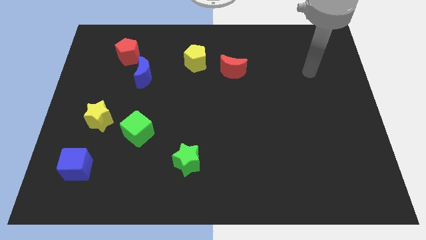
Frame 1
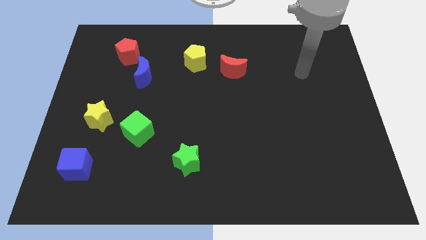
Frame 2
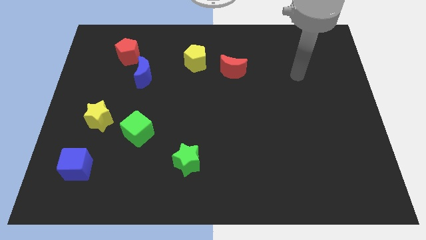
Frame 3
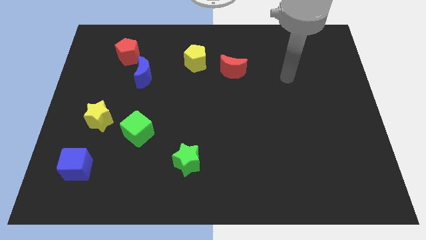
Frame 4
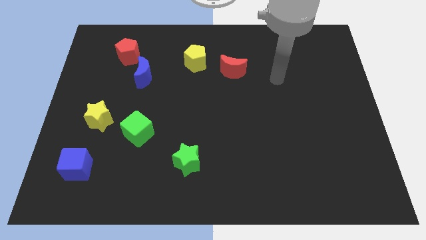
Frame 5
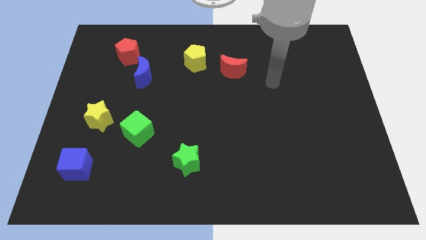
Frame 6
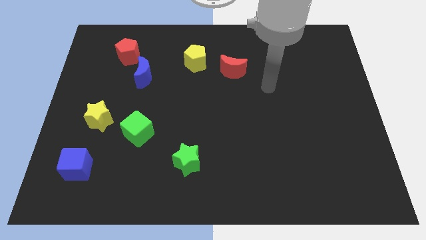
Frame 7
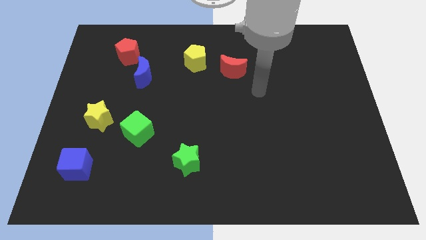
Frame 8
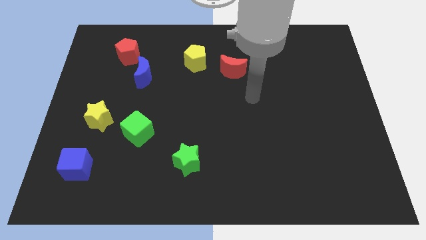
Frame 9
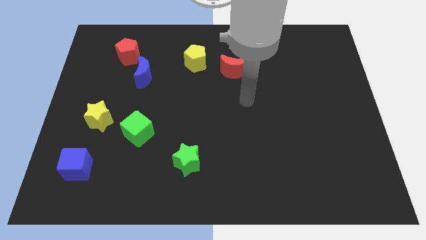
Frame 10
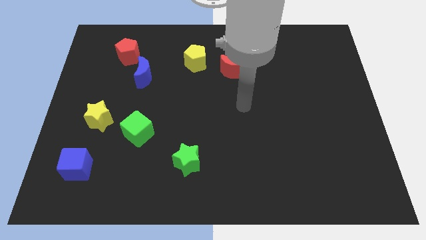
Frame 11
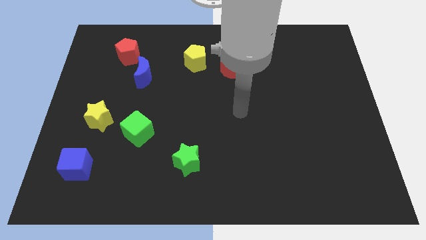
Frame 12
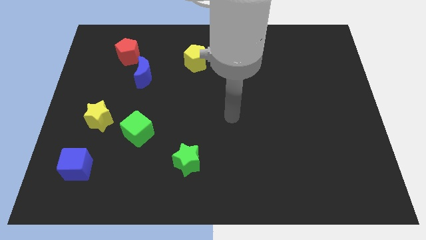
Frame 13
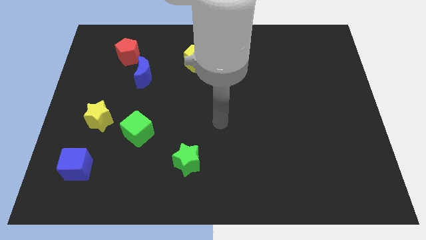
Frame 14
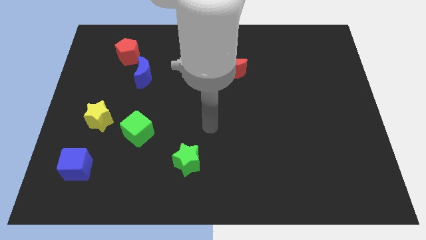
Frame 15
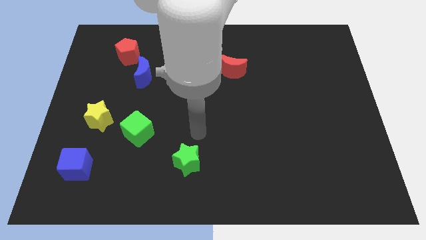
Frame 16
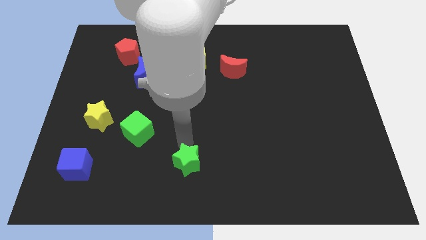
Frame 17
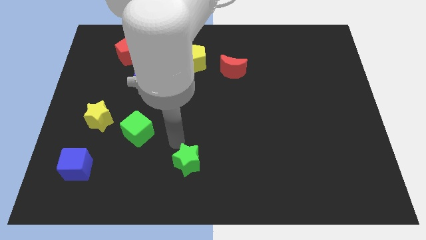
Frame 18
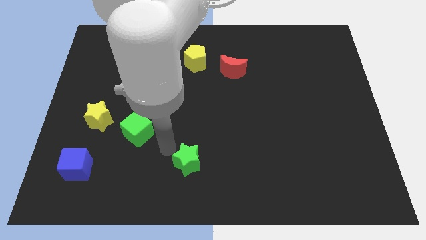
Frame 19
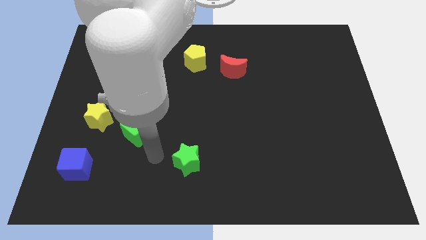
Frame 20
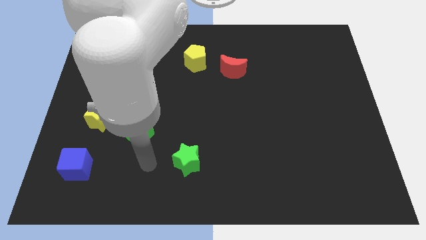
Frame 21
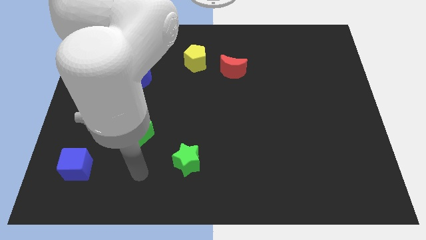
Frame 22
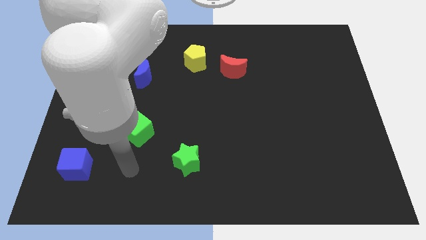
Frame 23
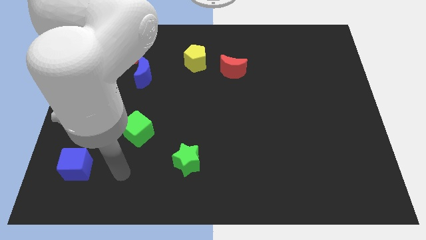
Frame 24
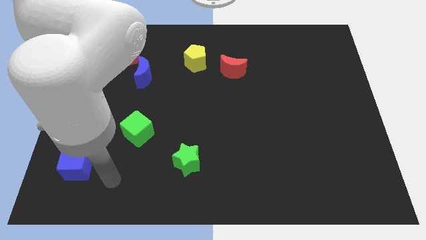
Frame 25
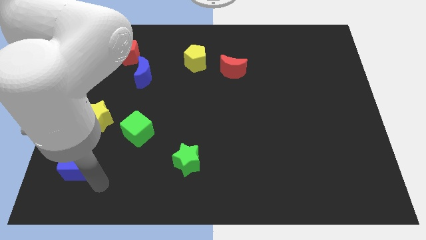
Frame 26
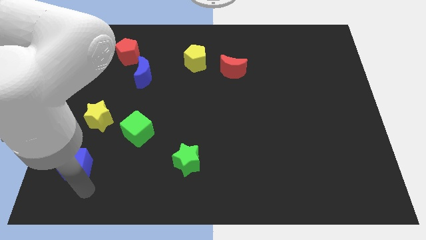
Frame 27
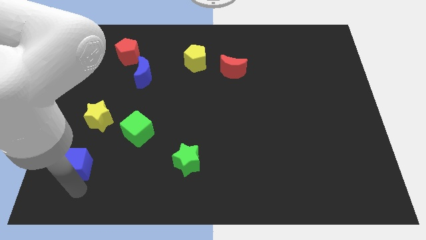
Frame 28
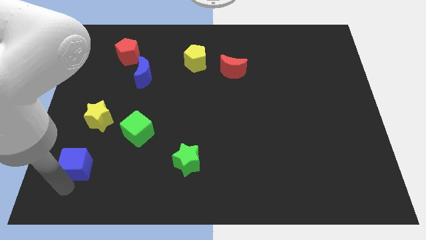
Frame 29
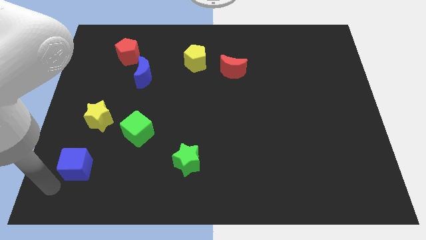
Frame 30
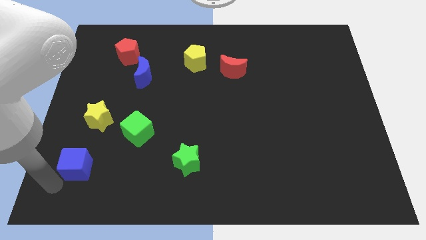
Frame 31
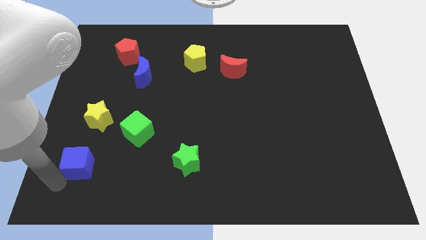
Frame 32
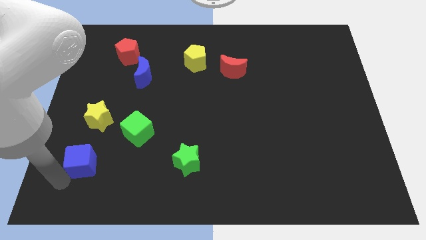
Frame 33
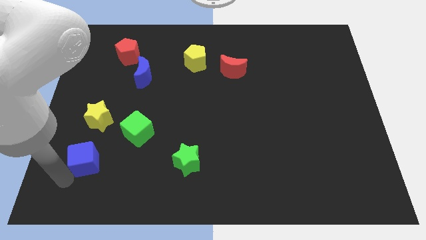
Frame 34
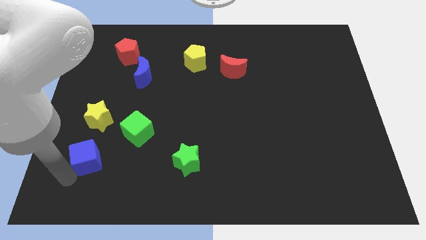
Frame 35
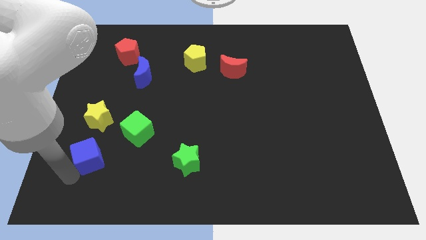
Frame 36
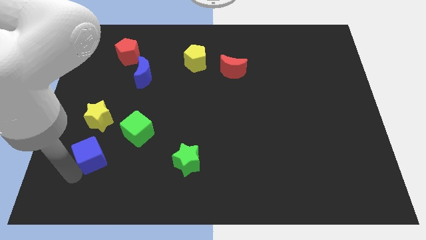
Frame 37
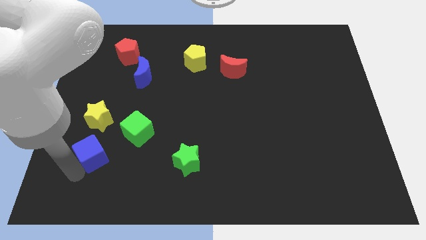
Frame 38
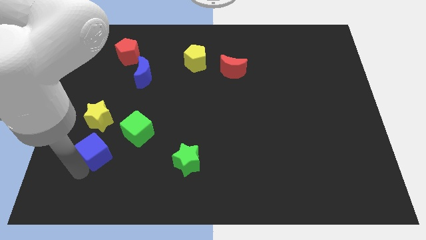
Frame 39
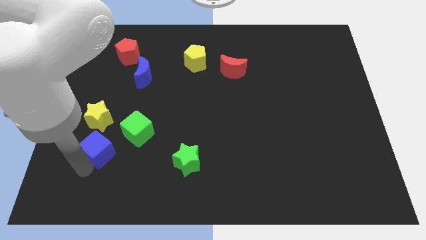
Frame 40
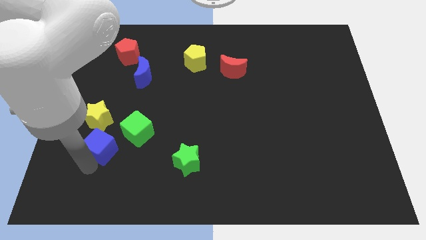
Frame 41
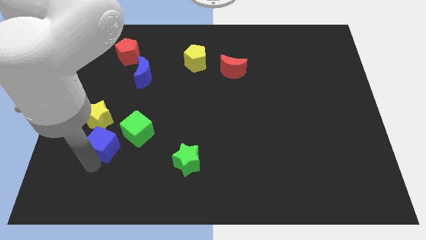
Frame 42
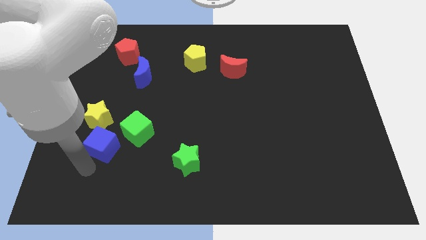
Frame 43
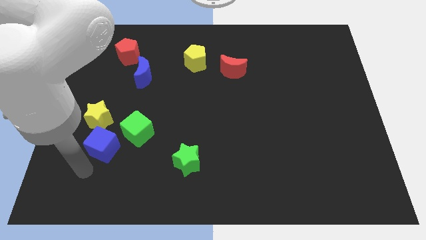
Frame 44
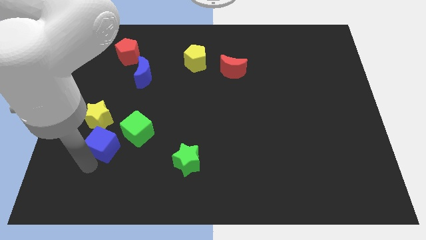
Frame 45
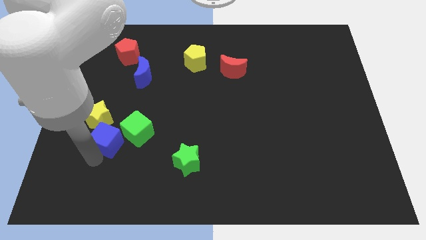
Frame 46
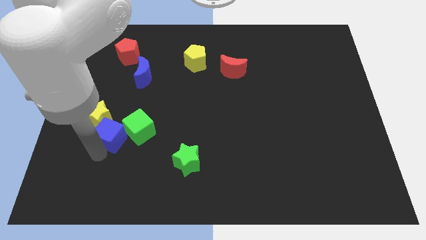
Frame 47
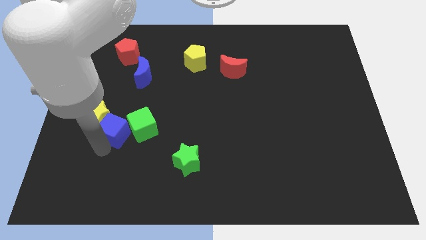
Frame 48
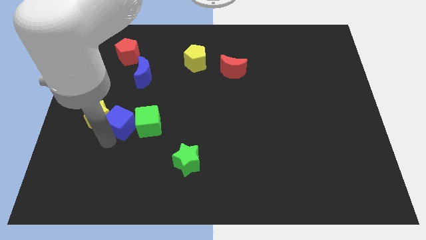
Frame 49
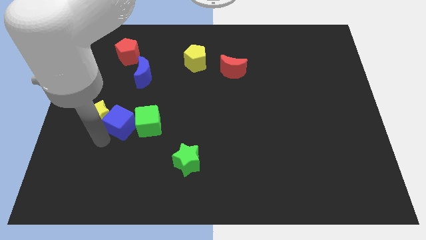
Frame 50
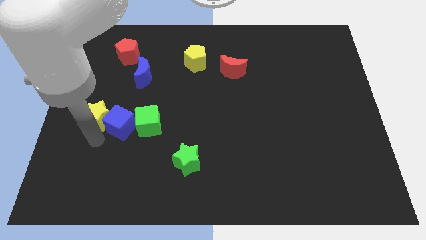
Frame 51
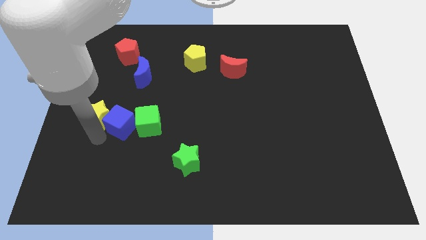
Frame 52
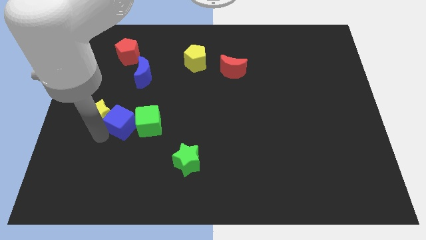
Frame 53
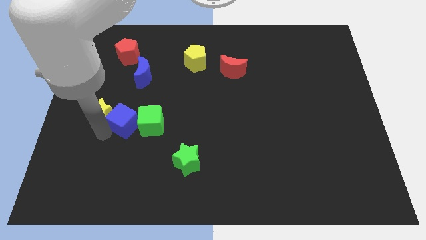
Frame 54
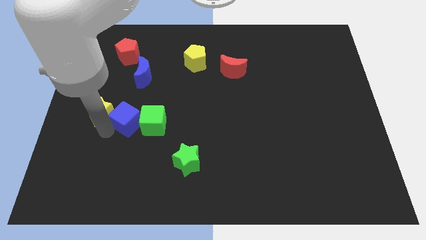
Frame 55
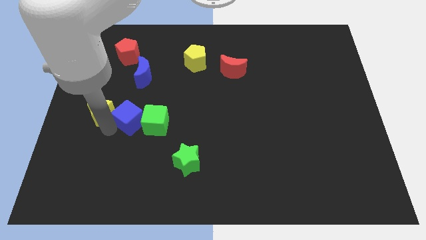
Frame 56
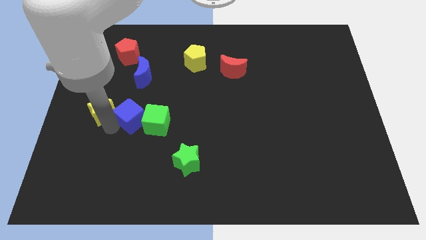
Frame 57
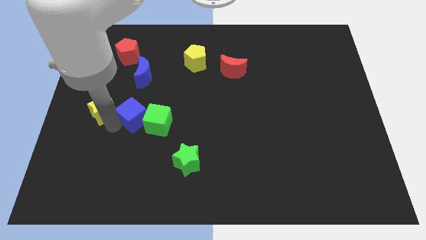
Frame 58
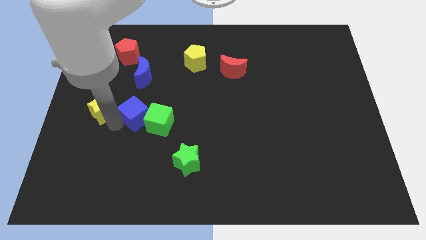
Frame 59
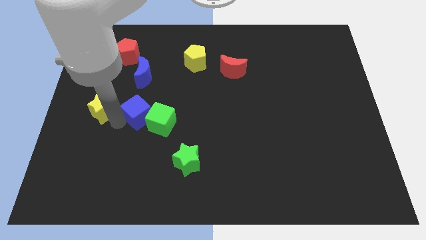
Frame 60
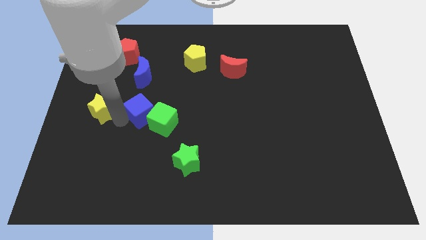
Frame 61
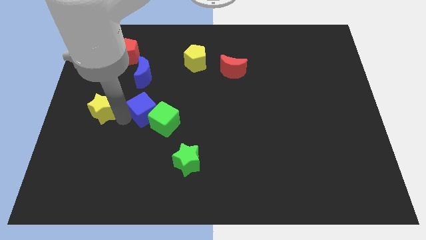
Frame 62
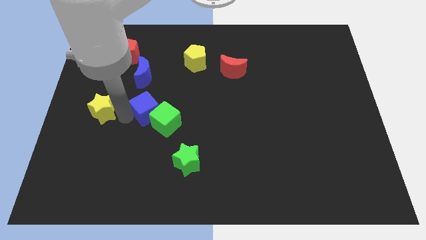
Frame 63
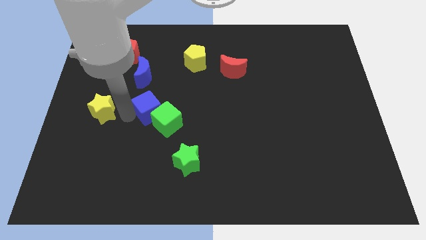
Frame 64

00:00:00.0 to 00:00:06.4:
push the blue cube up and to the right

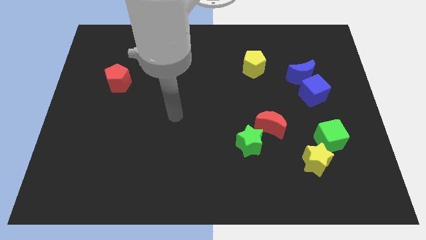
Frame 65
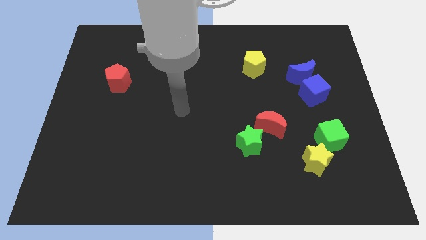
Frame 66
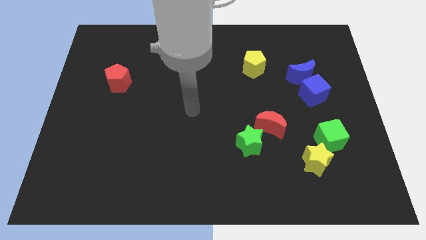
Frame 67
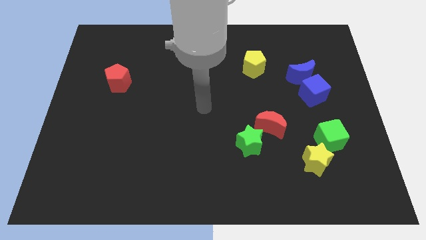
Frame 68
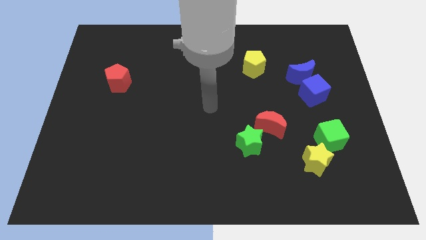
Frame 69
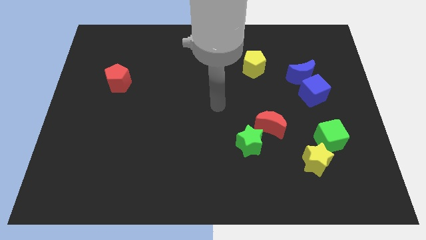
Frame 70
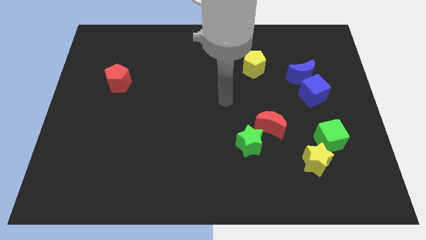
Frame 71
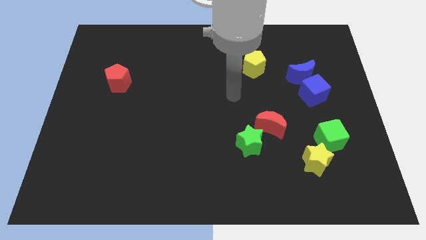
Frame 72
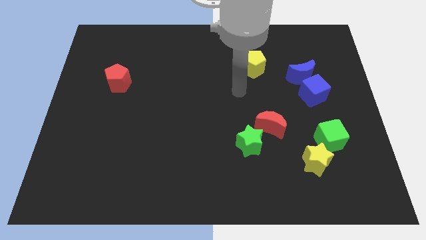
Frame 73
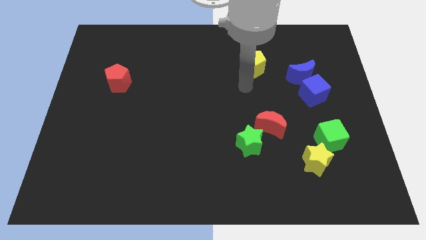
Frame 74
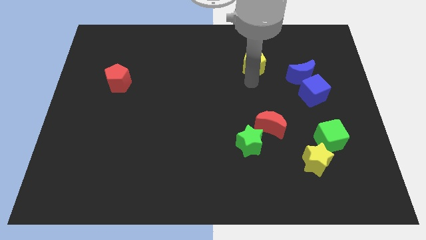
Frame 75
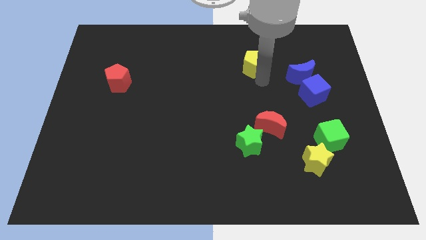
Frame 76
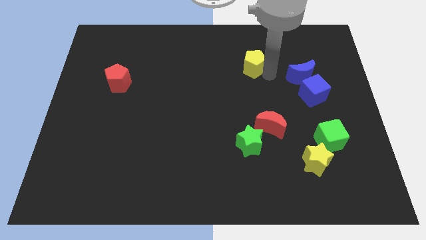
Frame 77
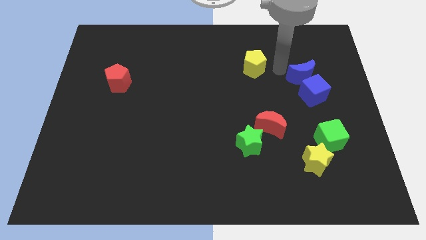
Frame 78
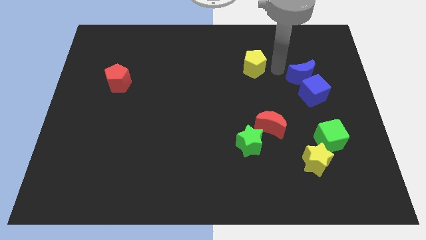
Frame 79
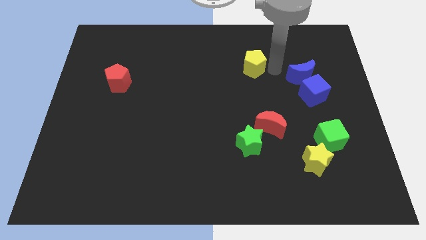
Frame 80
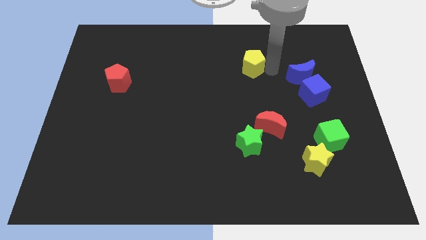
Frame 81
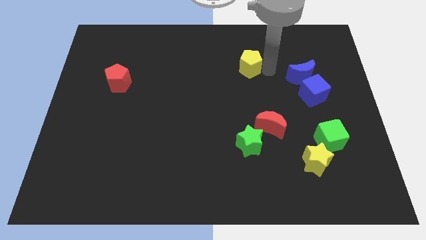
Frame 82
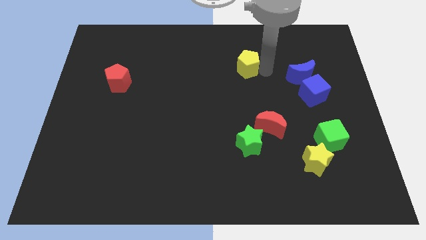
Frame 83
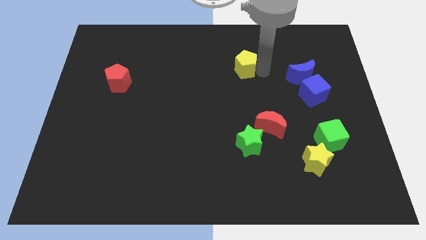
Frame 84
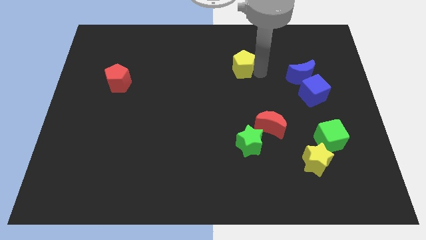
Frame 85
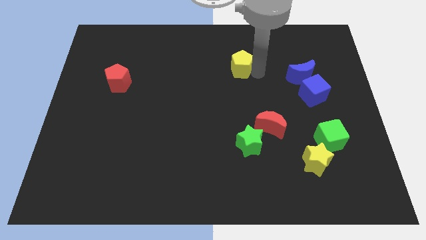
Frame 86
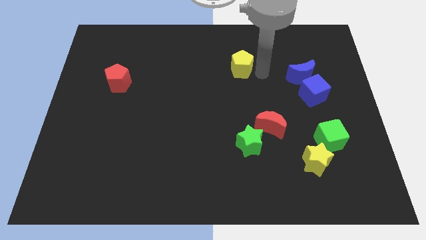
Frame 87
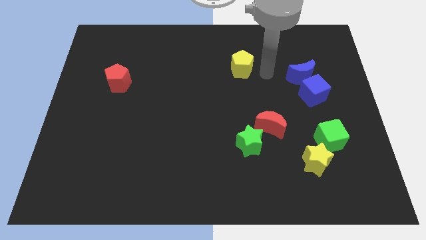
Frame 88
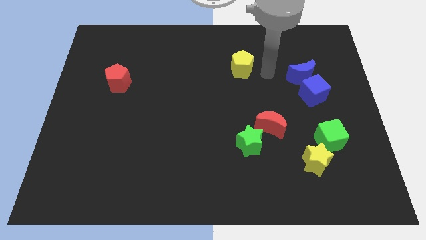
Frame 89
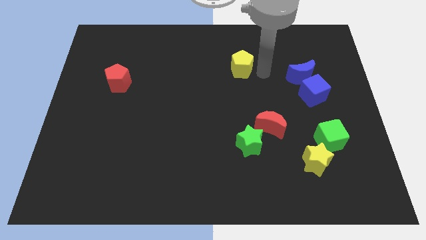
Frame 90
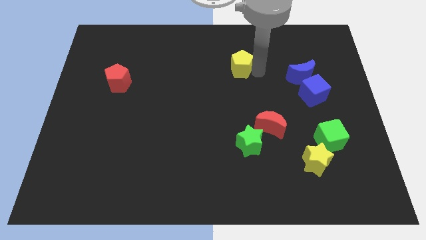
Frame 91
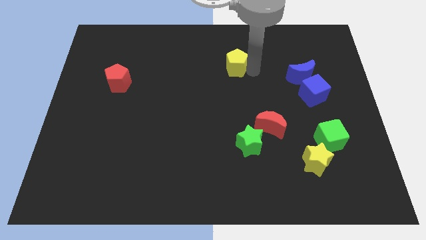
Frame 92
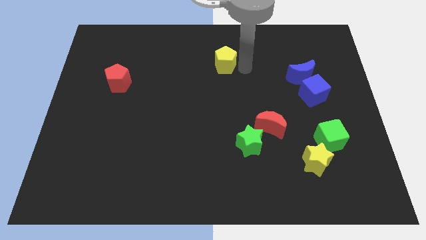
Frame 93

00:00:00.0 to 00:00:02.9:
push the yellow pentagon to the left a bit
